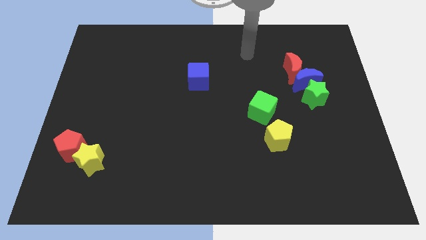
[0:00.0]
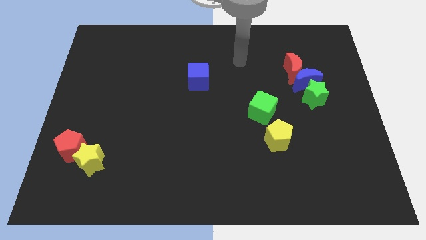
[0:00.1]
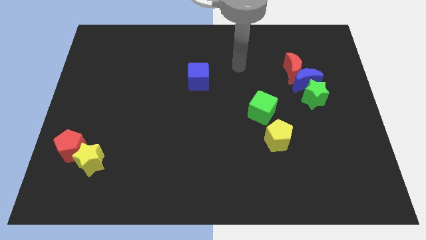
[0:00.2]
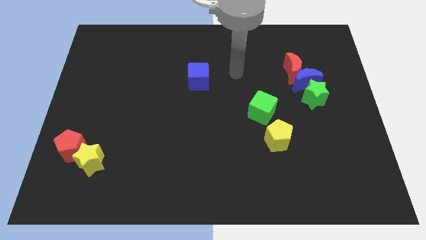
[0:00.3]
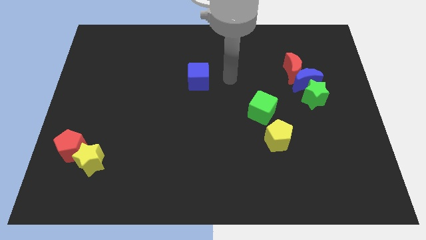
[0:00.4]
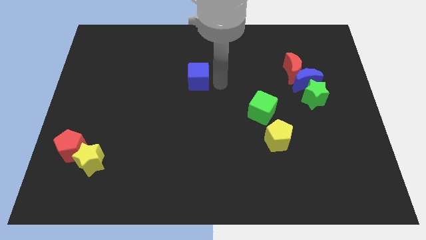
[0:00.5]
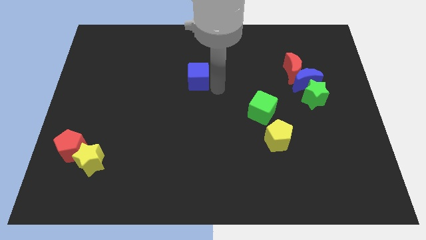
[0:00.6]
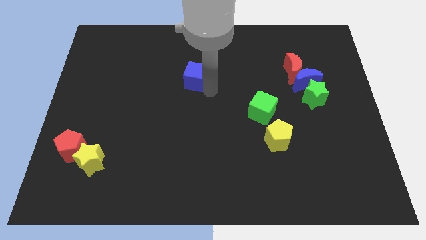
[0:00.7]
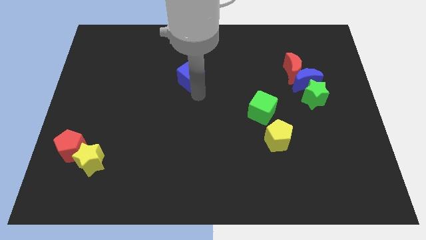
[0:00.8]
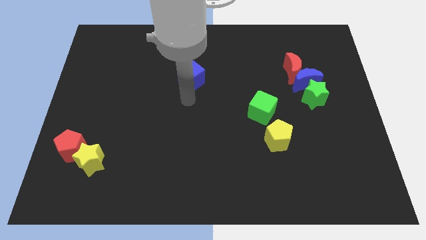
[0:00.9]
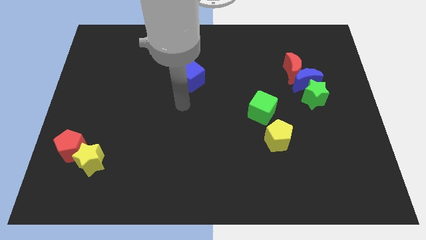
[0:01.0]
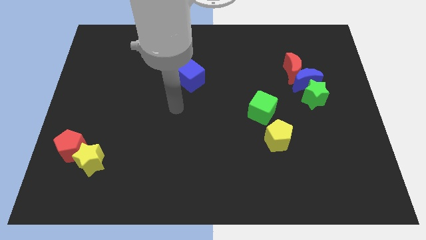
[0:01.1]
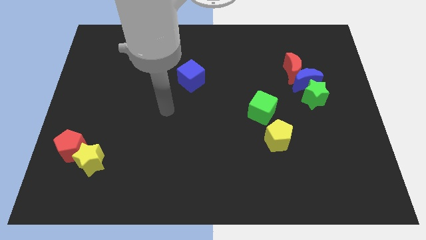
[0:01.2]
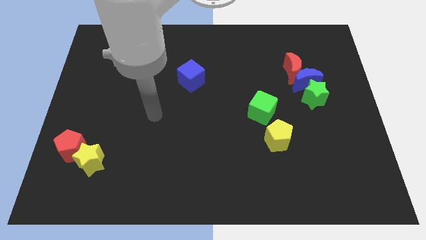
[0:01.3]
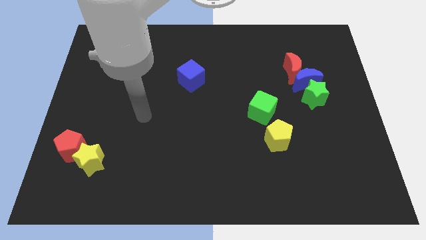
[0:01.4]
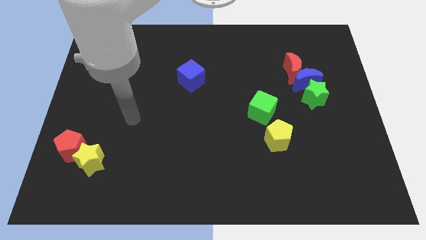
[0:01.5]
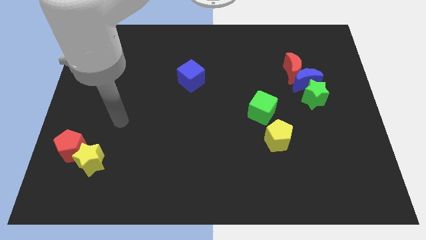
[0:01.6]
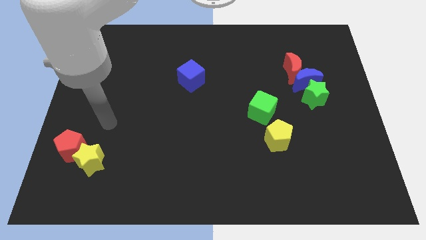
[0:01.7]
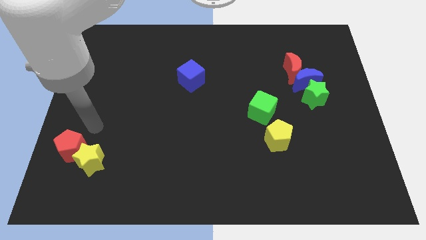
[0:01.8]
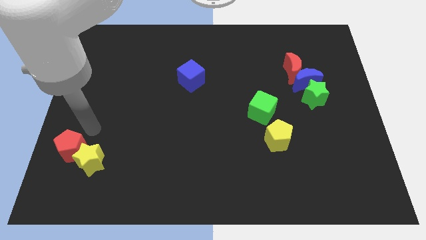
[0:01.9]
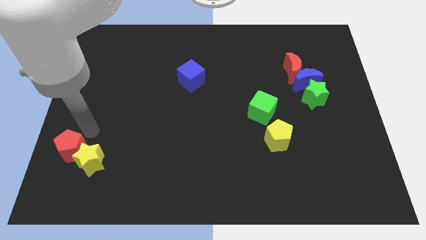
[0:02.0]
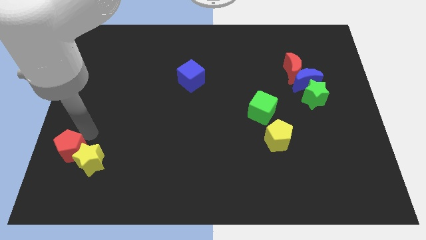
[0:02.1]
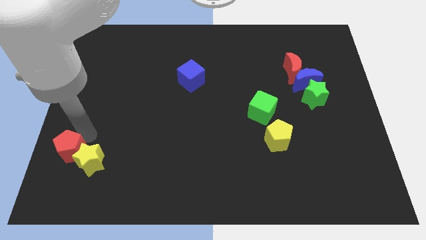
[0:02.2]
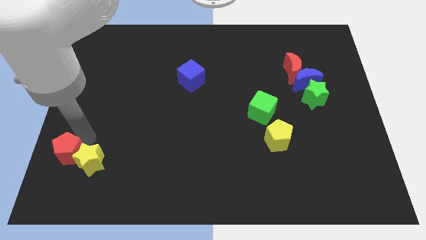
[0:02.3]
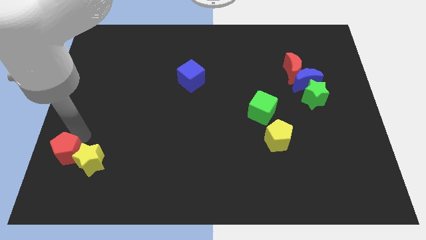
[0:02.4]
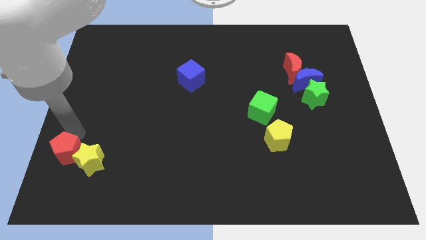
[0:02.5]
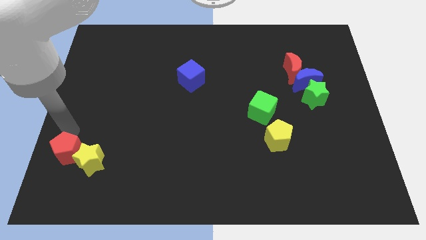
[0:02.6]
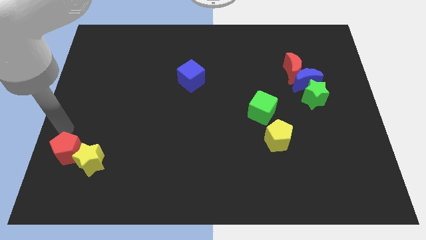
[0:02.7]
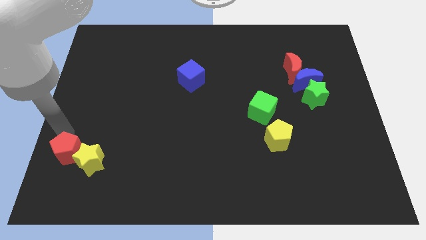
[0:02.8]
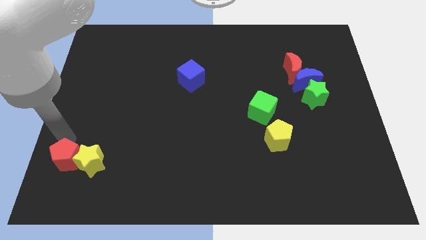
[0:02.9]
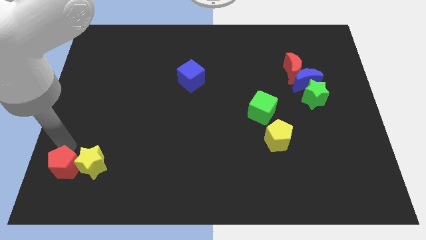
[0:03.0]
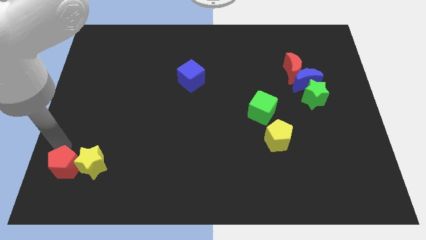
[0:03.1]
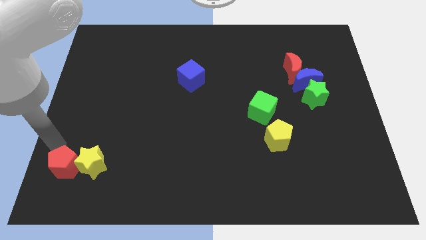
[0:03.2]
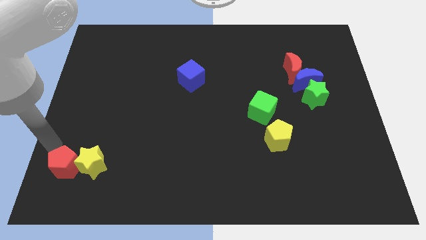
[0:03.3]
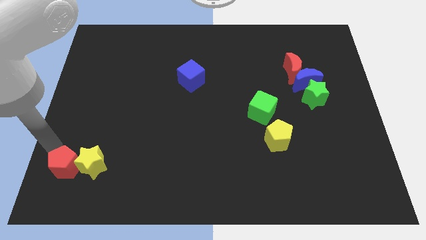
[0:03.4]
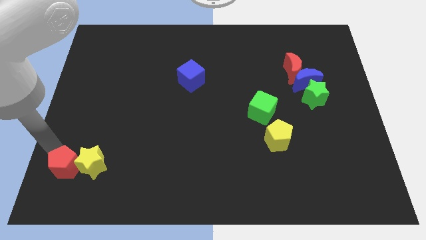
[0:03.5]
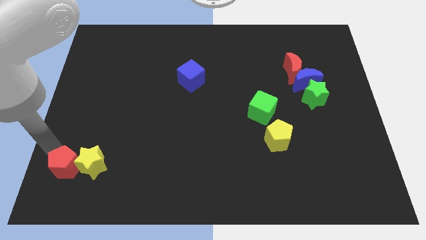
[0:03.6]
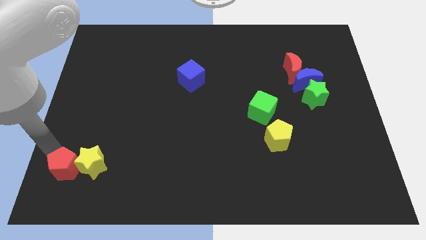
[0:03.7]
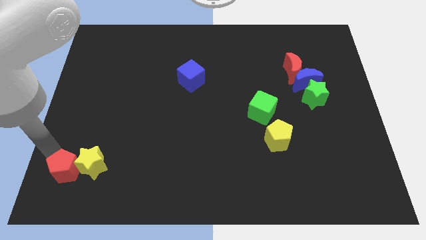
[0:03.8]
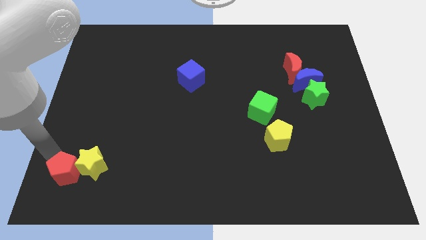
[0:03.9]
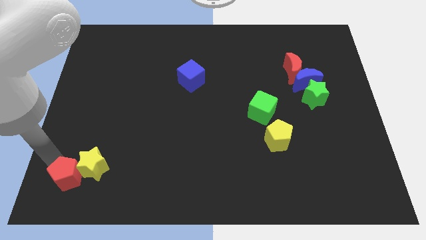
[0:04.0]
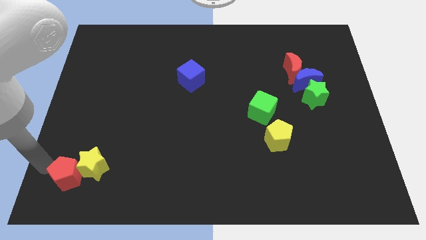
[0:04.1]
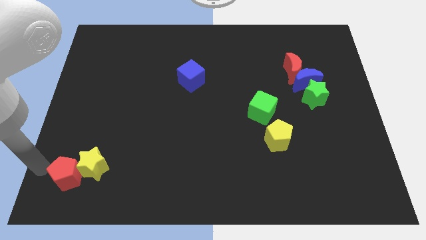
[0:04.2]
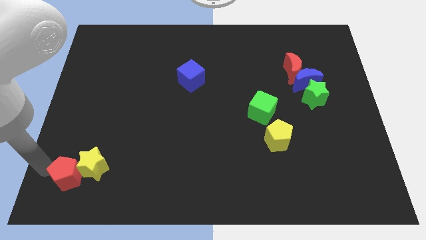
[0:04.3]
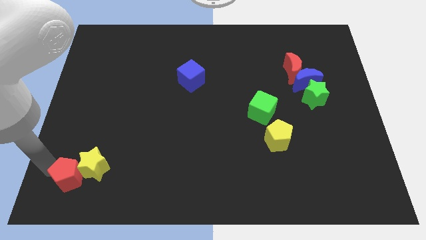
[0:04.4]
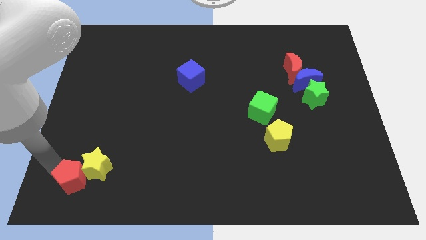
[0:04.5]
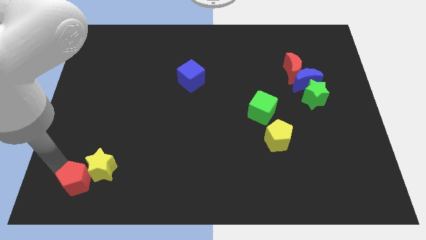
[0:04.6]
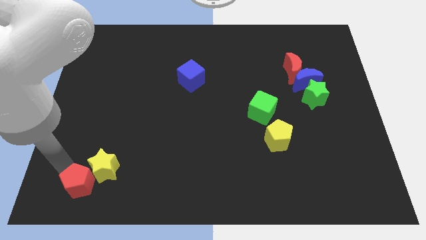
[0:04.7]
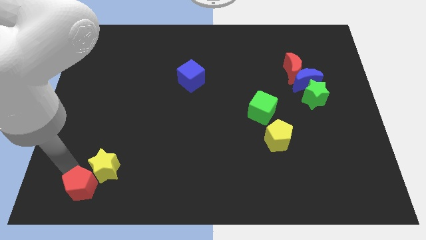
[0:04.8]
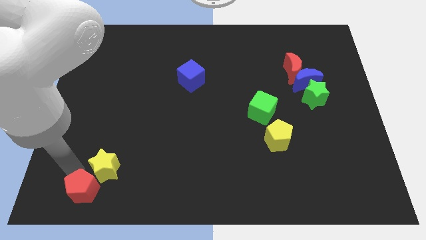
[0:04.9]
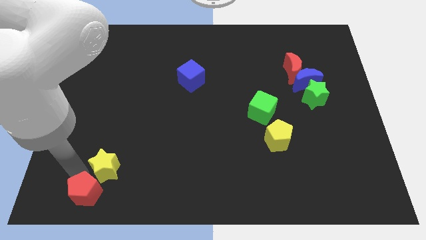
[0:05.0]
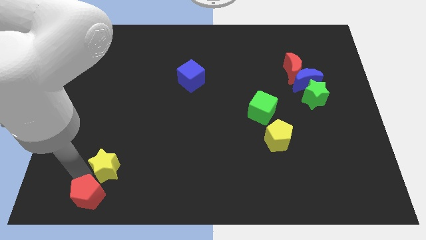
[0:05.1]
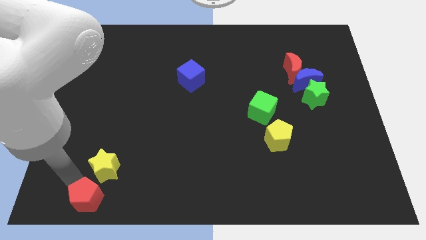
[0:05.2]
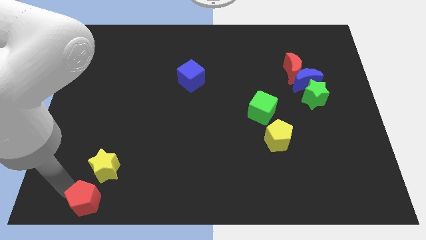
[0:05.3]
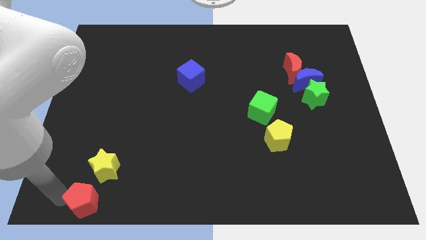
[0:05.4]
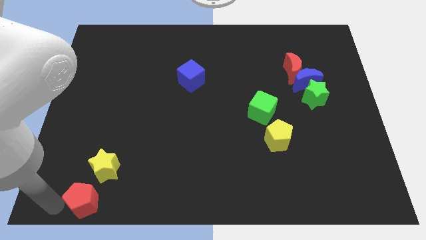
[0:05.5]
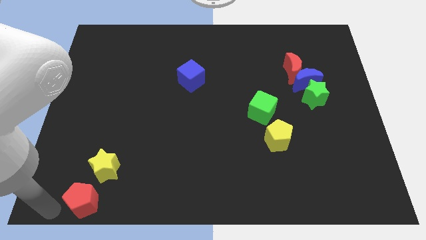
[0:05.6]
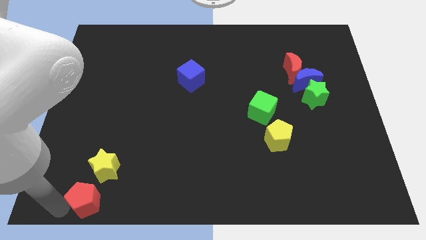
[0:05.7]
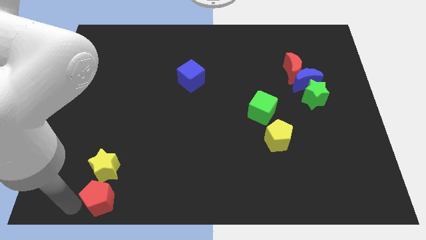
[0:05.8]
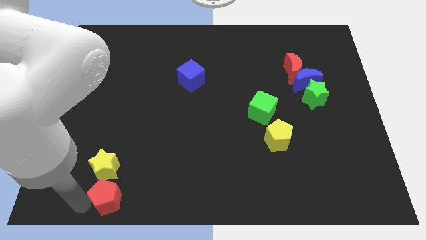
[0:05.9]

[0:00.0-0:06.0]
push the red pentagon to the bottom right of the yellow star

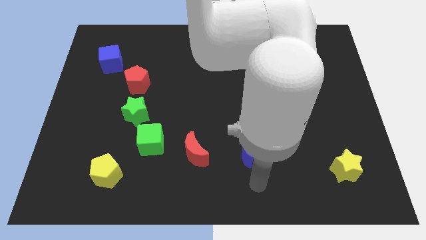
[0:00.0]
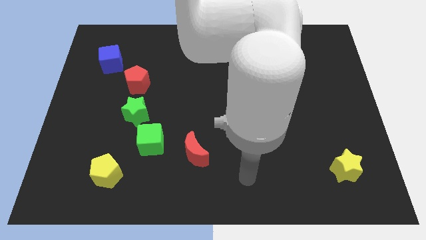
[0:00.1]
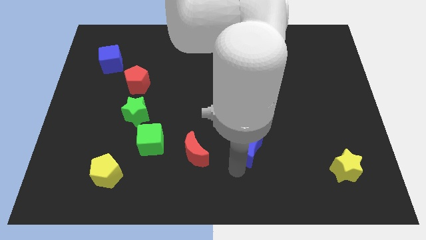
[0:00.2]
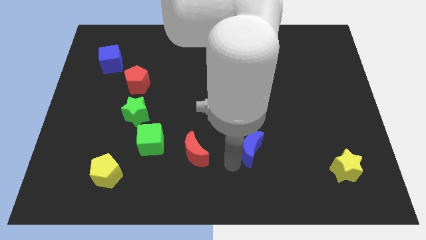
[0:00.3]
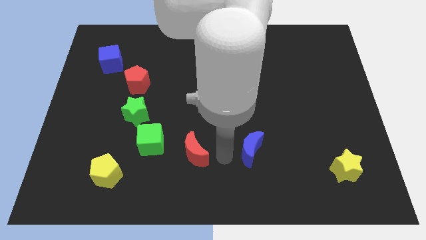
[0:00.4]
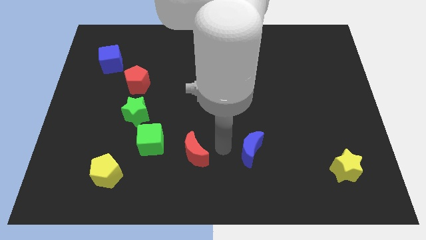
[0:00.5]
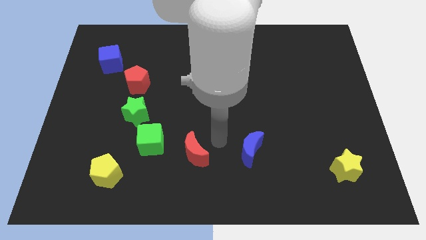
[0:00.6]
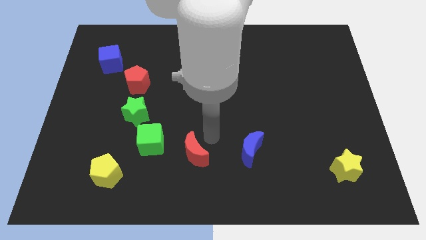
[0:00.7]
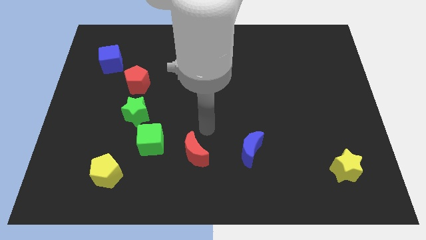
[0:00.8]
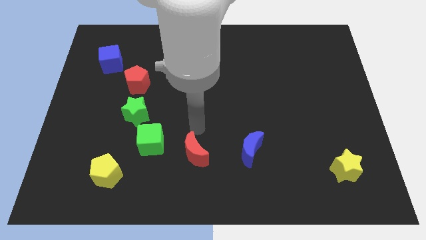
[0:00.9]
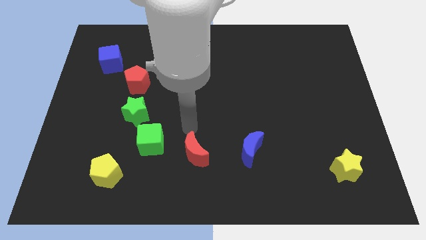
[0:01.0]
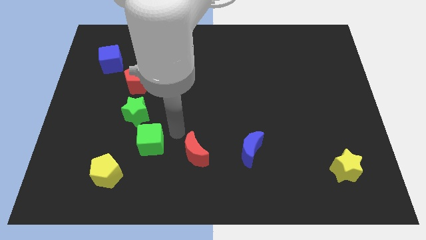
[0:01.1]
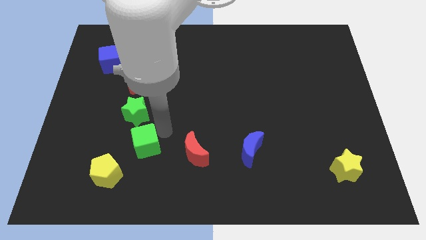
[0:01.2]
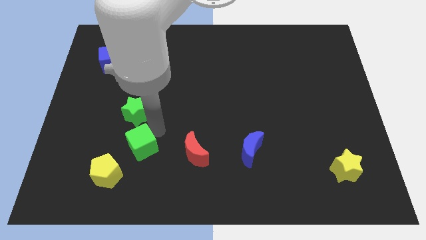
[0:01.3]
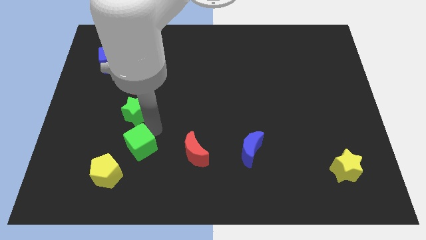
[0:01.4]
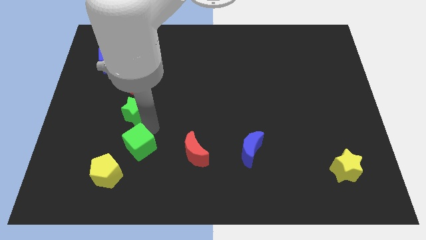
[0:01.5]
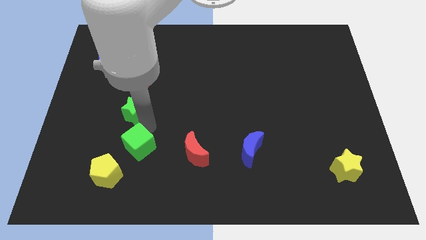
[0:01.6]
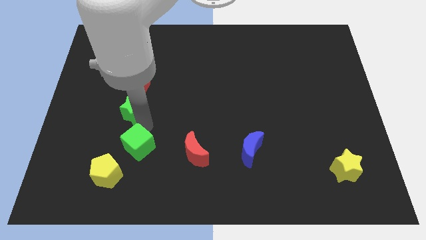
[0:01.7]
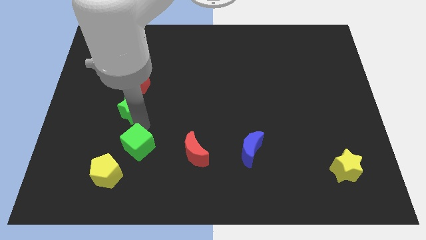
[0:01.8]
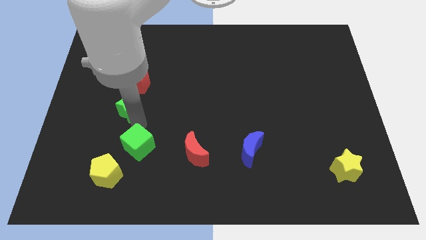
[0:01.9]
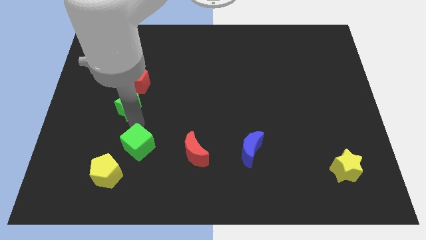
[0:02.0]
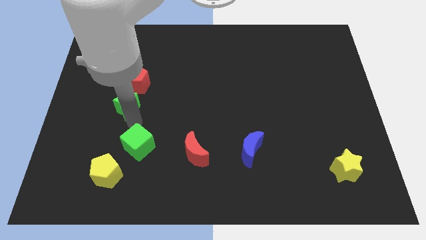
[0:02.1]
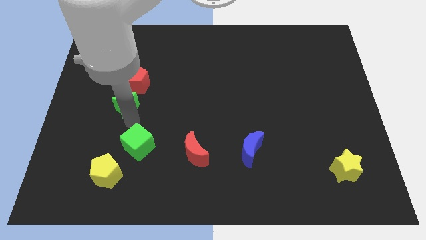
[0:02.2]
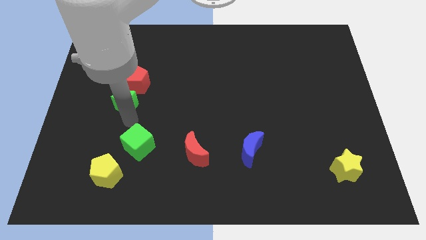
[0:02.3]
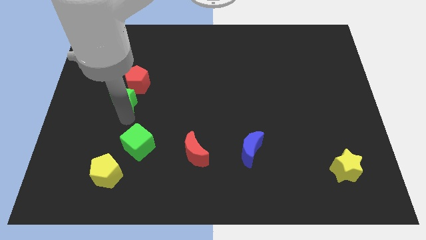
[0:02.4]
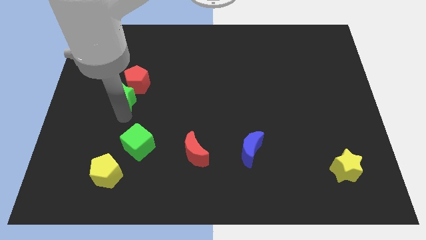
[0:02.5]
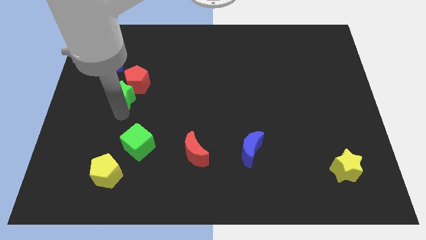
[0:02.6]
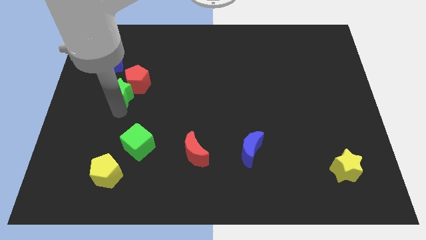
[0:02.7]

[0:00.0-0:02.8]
put the green star to the left of the red pentagon
